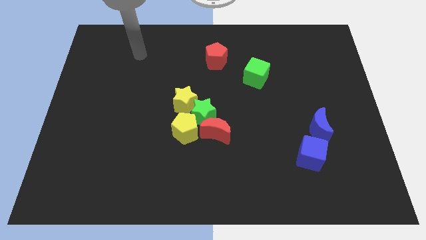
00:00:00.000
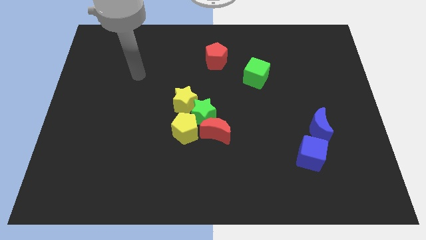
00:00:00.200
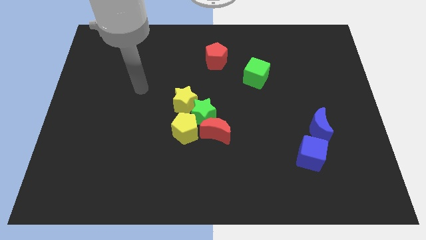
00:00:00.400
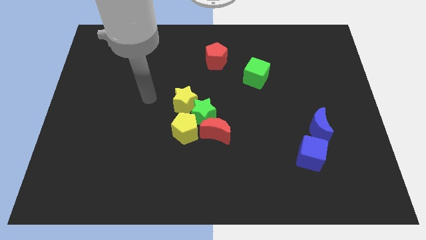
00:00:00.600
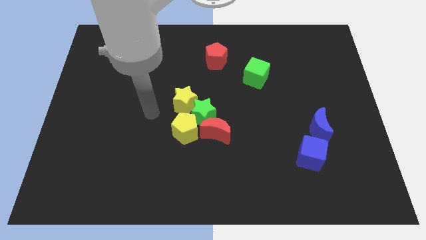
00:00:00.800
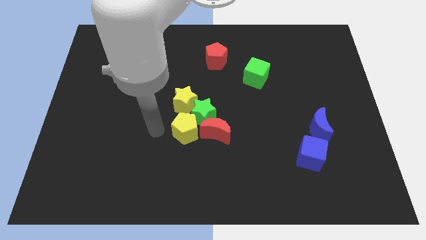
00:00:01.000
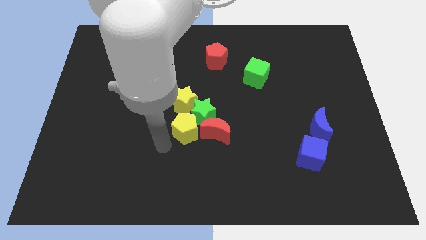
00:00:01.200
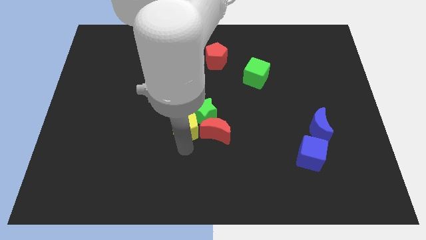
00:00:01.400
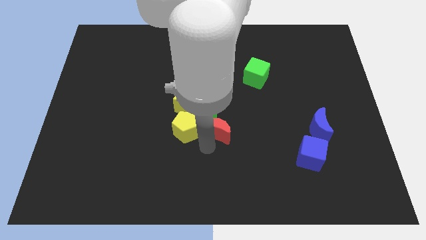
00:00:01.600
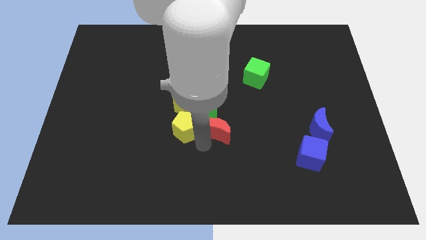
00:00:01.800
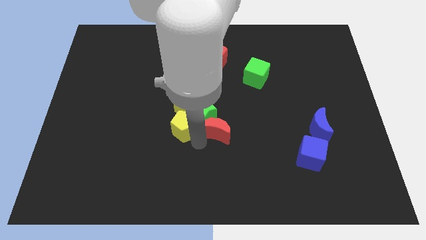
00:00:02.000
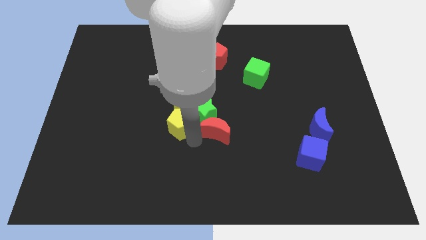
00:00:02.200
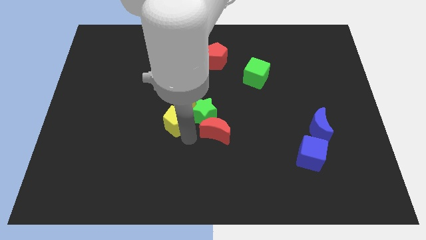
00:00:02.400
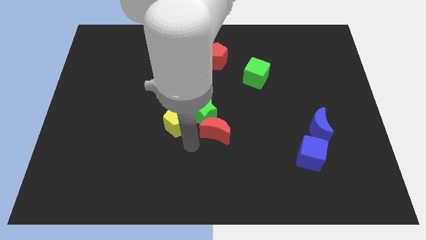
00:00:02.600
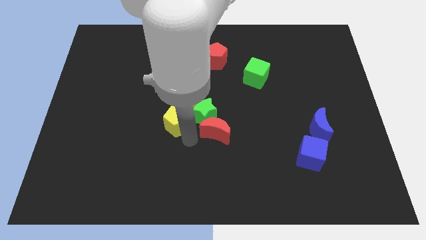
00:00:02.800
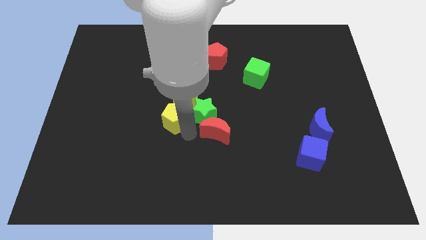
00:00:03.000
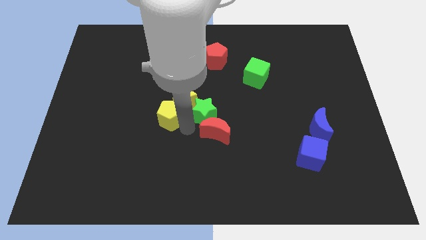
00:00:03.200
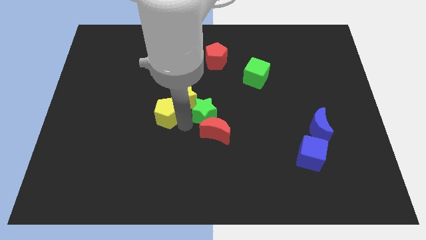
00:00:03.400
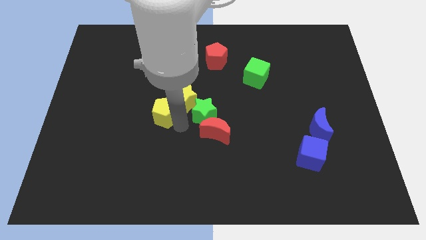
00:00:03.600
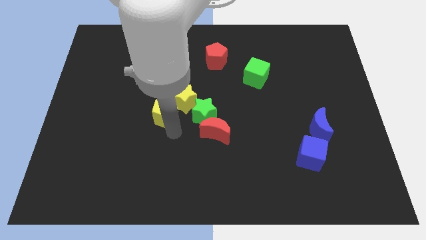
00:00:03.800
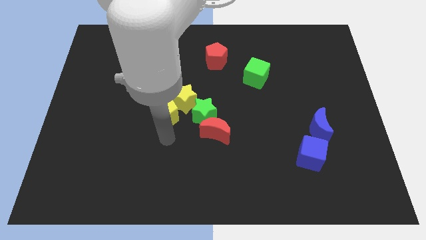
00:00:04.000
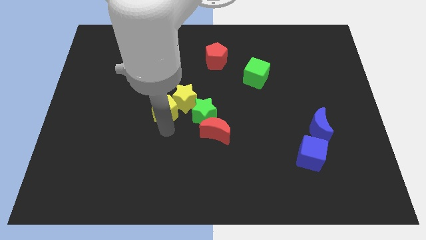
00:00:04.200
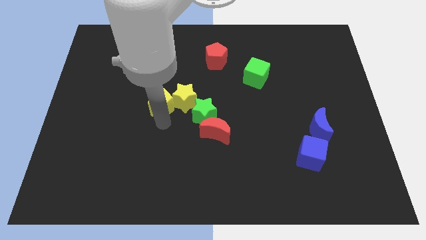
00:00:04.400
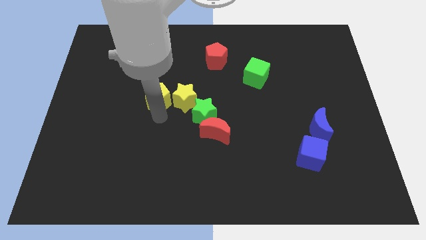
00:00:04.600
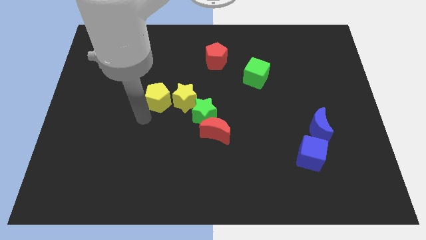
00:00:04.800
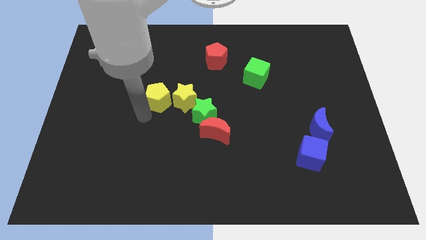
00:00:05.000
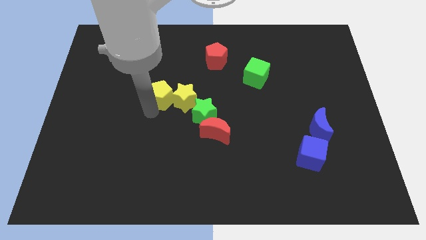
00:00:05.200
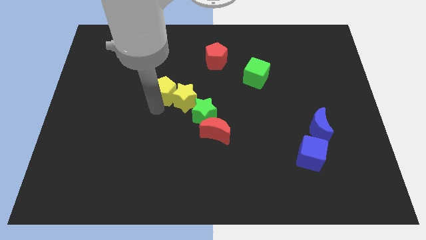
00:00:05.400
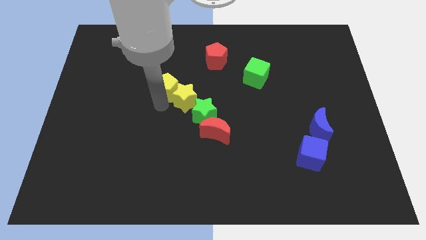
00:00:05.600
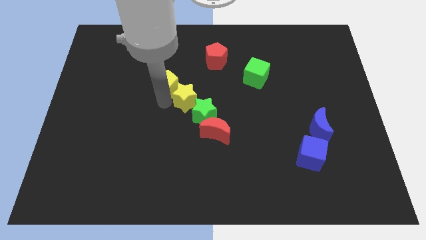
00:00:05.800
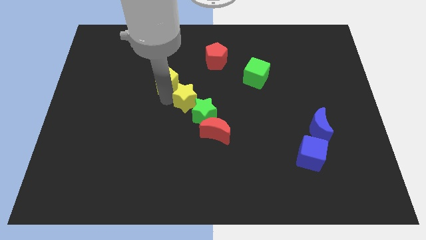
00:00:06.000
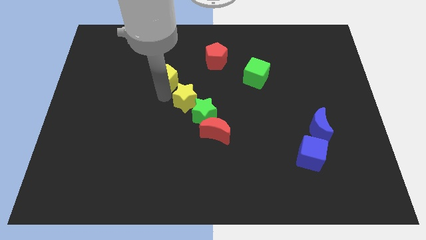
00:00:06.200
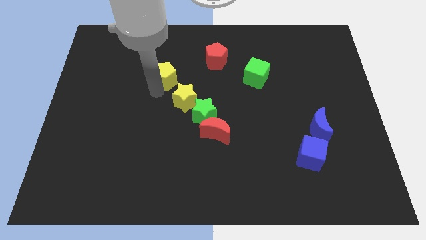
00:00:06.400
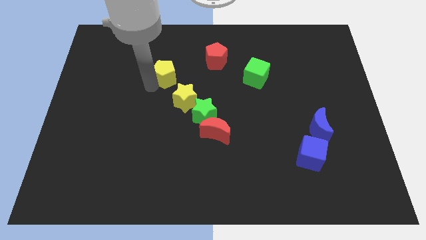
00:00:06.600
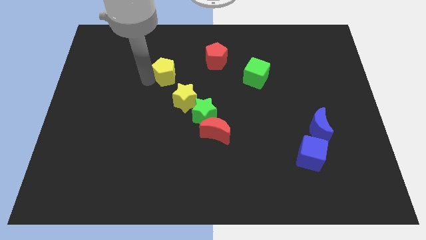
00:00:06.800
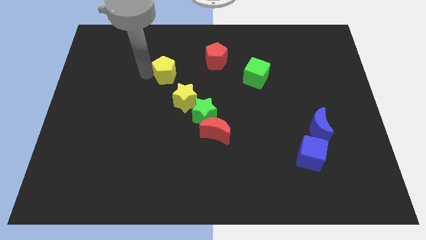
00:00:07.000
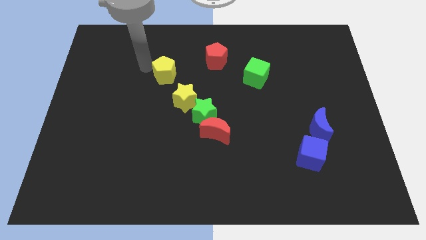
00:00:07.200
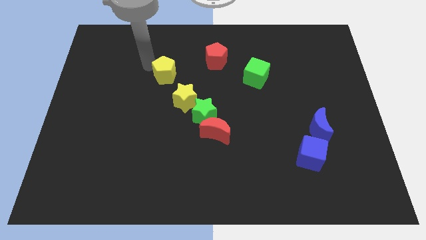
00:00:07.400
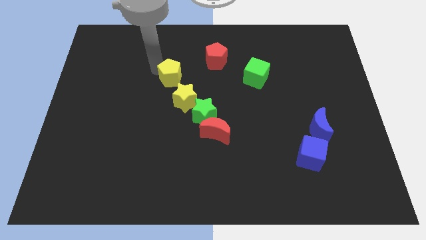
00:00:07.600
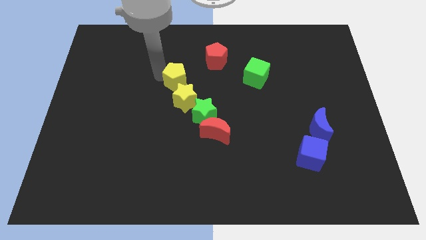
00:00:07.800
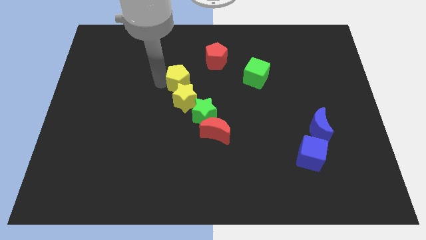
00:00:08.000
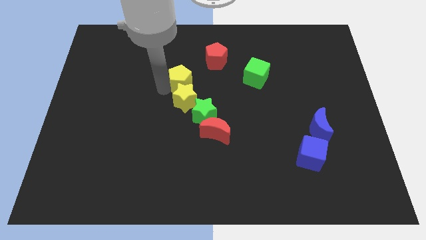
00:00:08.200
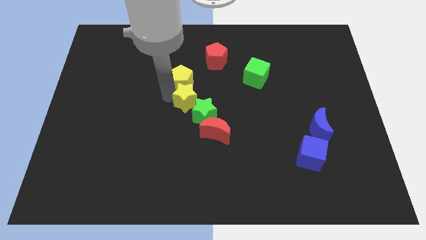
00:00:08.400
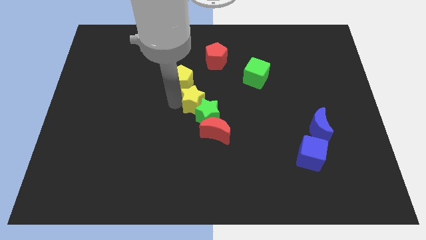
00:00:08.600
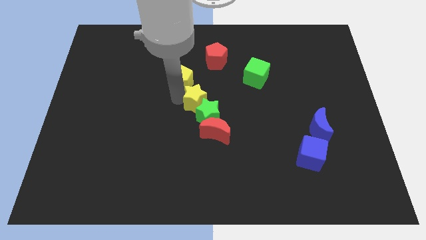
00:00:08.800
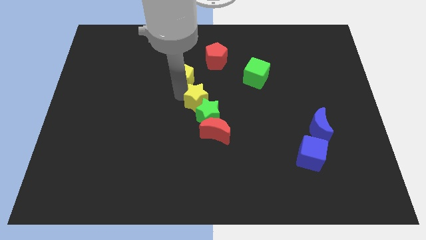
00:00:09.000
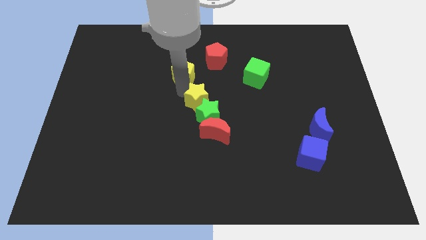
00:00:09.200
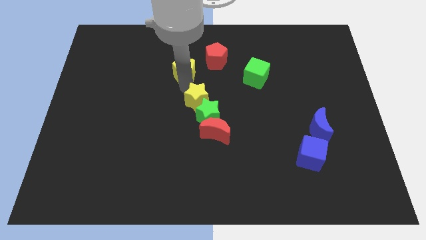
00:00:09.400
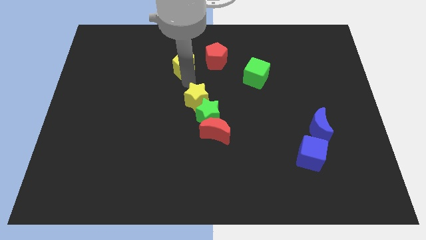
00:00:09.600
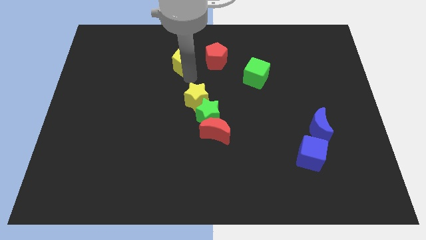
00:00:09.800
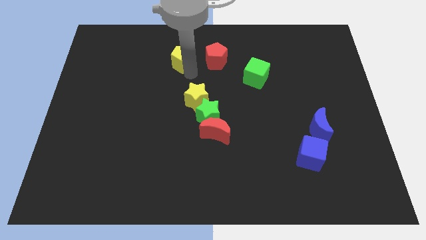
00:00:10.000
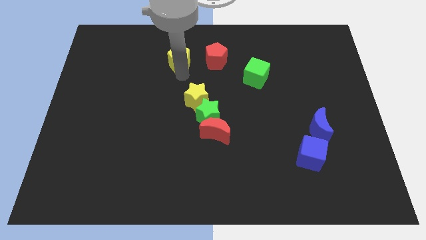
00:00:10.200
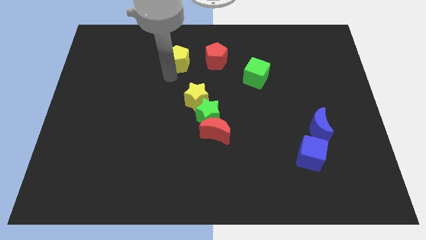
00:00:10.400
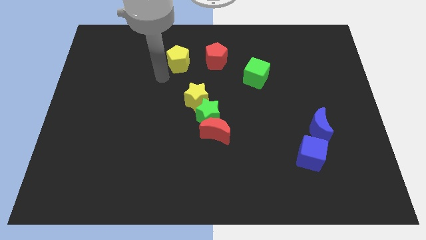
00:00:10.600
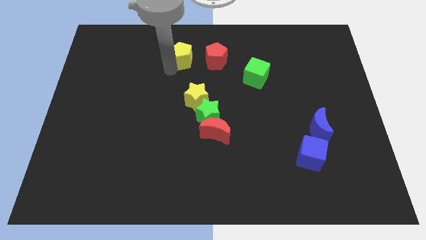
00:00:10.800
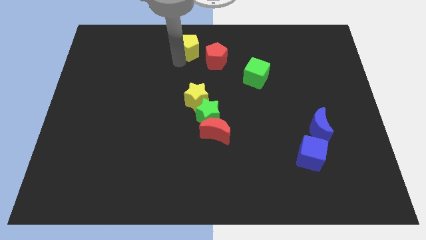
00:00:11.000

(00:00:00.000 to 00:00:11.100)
move the yellow pentagon to the towards your base

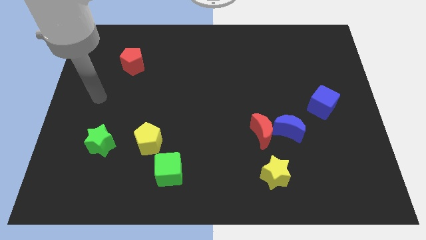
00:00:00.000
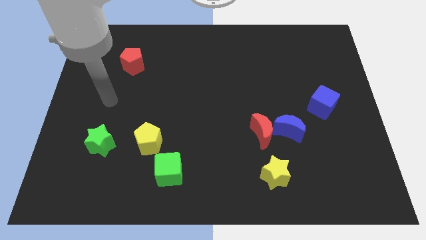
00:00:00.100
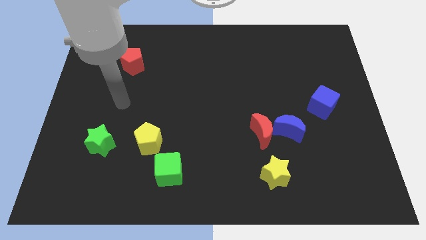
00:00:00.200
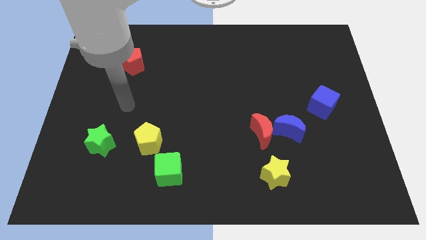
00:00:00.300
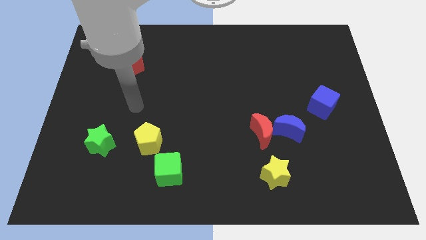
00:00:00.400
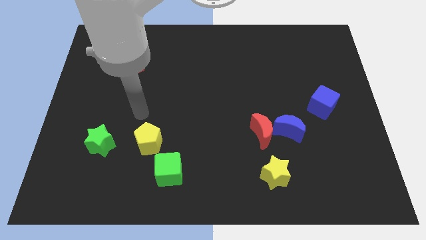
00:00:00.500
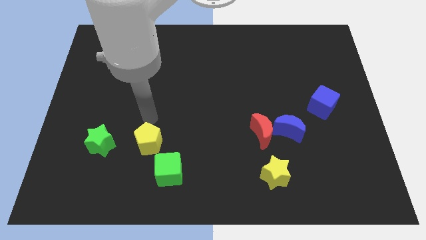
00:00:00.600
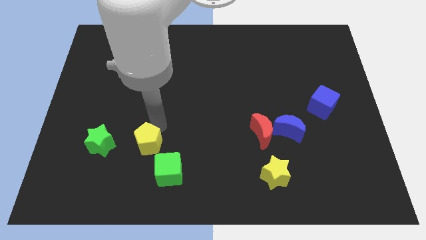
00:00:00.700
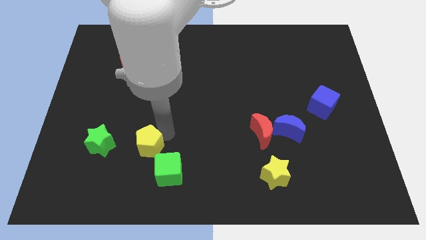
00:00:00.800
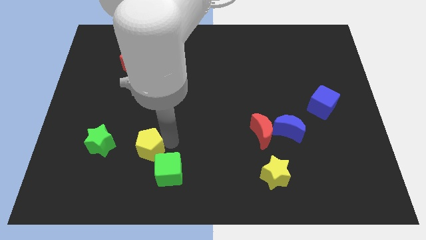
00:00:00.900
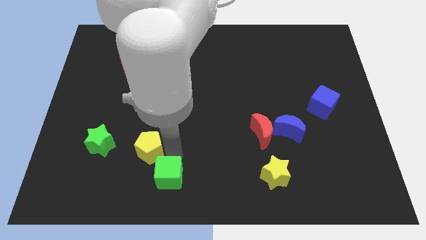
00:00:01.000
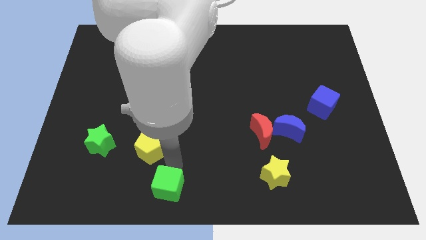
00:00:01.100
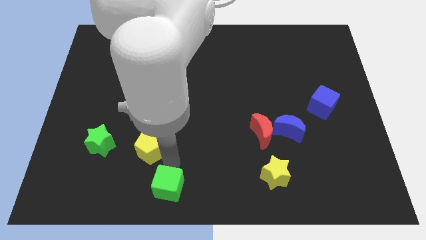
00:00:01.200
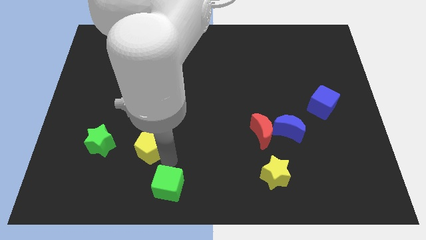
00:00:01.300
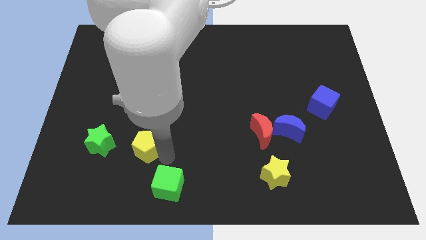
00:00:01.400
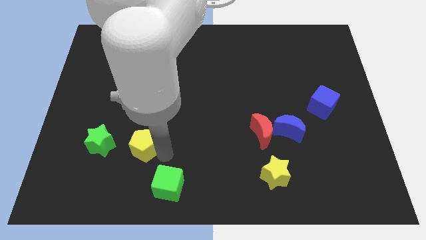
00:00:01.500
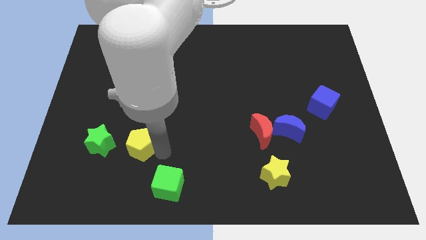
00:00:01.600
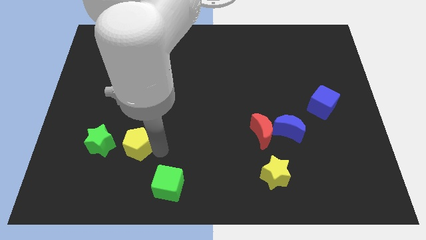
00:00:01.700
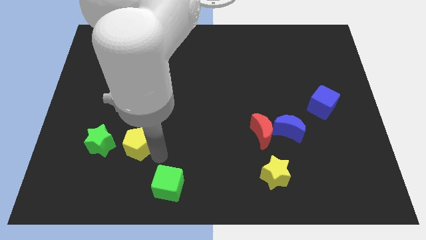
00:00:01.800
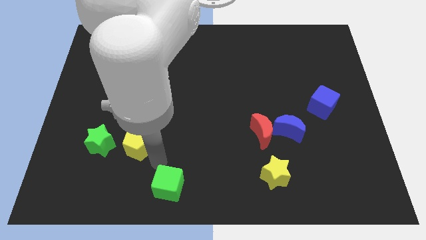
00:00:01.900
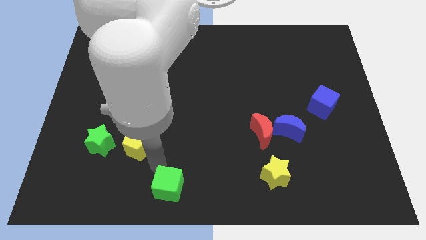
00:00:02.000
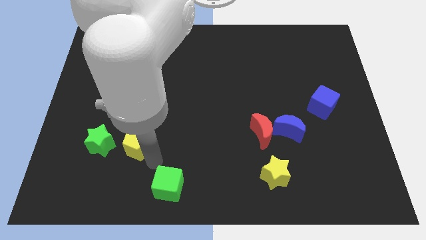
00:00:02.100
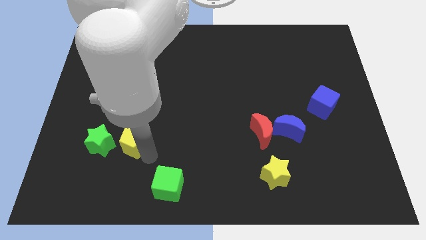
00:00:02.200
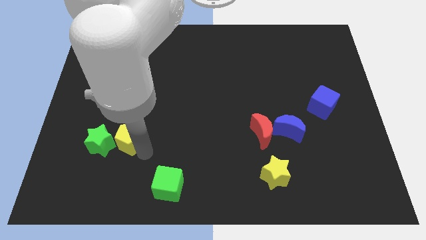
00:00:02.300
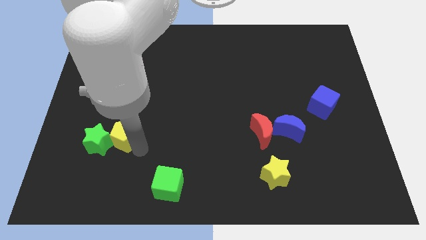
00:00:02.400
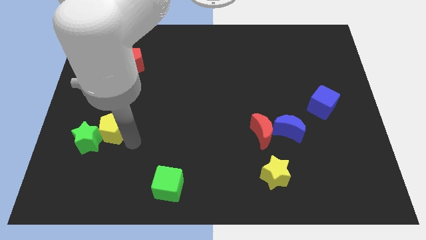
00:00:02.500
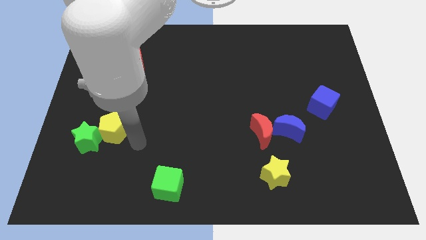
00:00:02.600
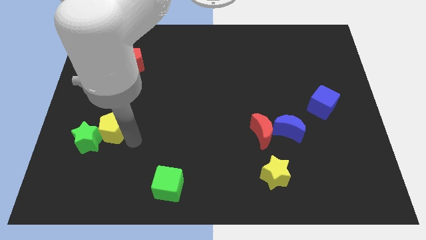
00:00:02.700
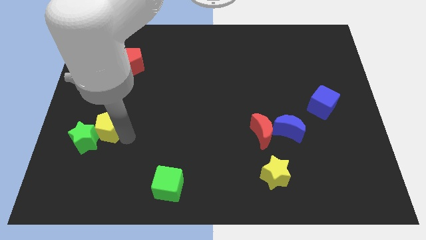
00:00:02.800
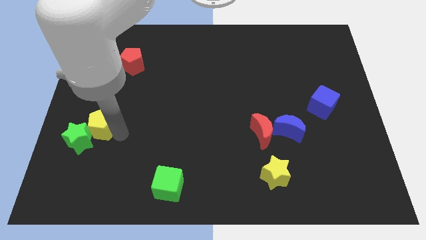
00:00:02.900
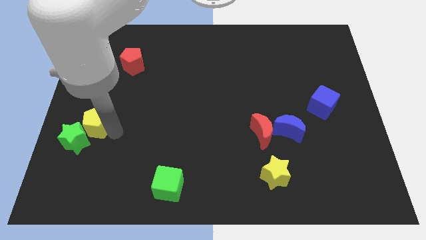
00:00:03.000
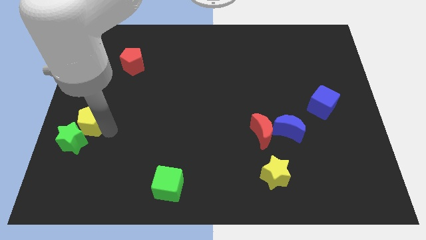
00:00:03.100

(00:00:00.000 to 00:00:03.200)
push the yellow pentagon to the center left
